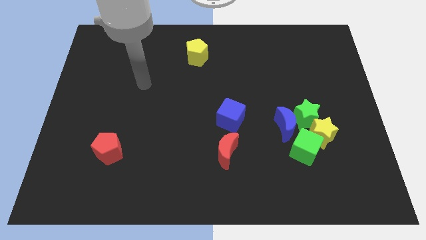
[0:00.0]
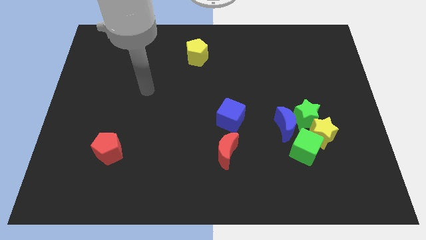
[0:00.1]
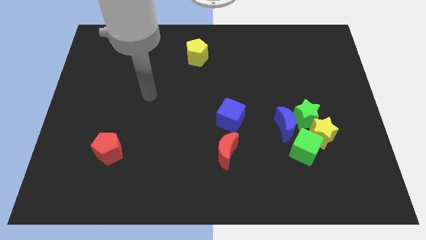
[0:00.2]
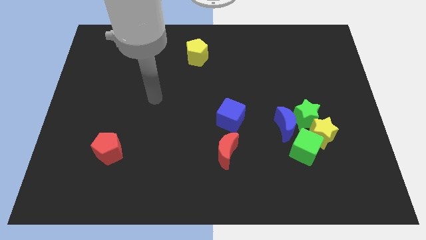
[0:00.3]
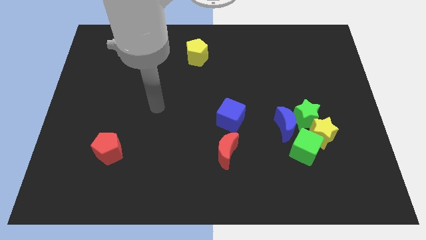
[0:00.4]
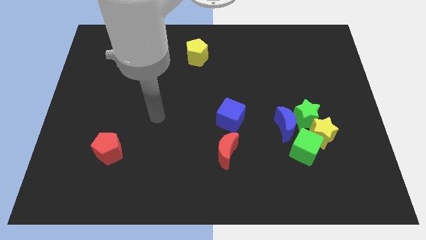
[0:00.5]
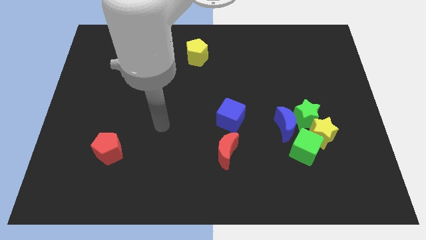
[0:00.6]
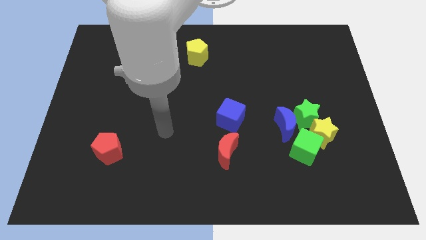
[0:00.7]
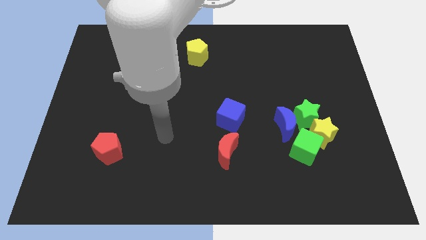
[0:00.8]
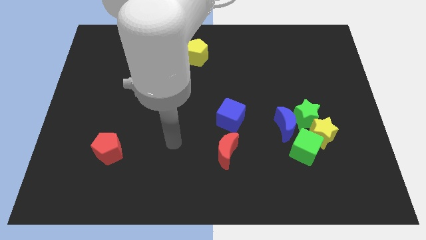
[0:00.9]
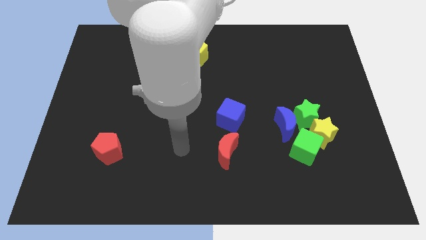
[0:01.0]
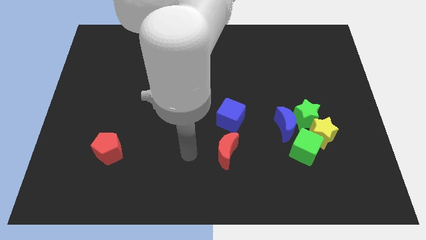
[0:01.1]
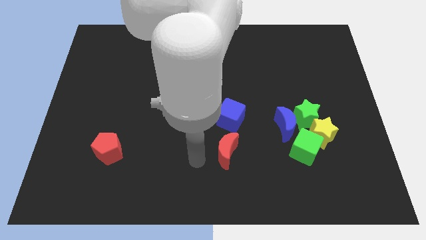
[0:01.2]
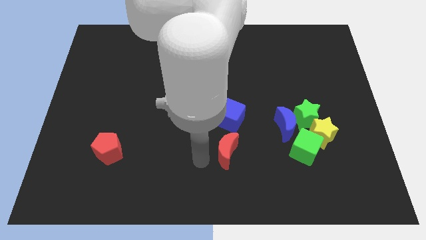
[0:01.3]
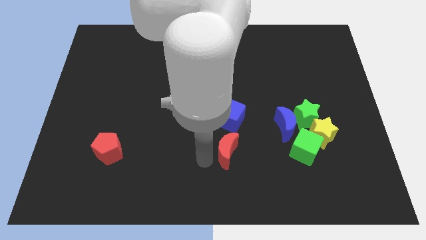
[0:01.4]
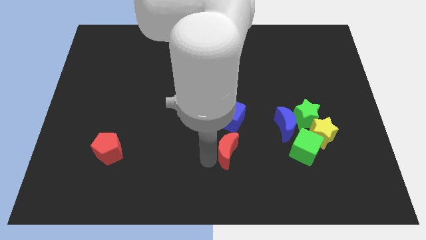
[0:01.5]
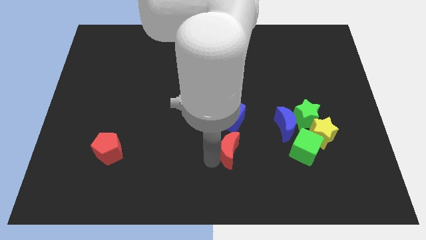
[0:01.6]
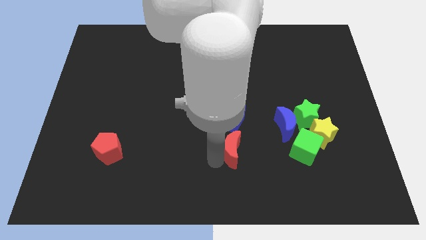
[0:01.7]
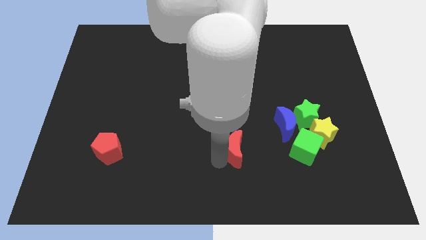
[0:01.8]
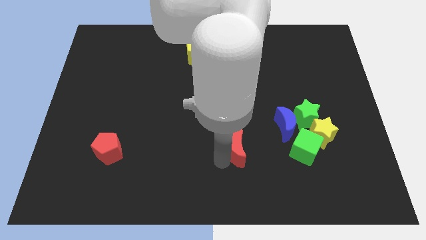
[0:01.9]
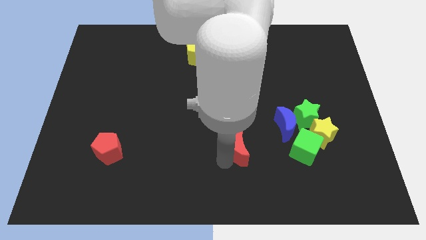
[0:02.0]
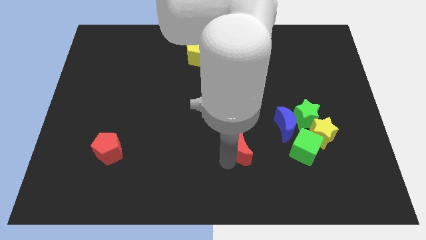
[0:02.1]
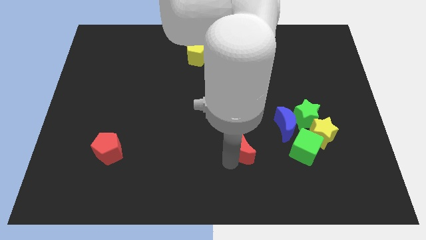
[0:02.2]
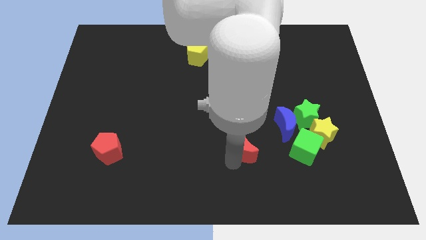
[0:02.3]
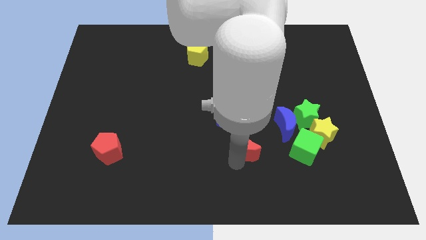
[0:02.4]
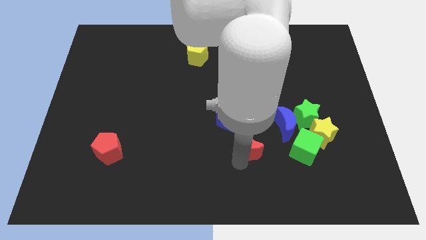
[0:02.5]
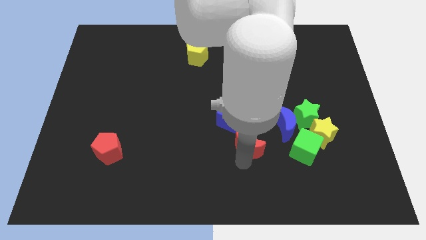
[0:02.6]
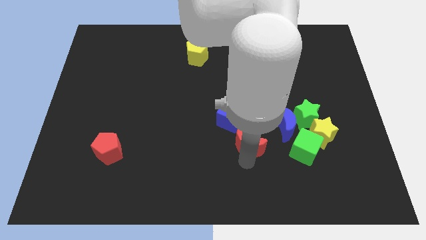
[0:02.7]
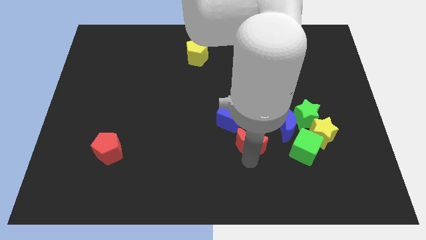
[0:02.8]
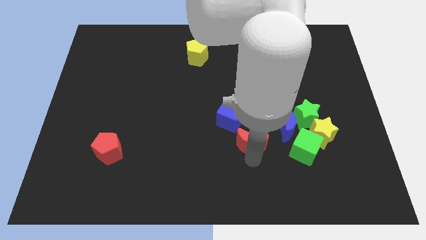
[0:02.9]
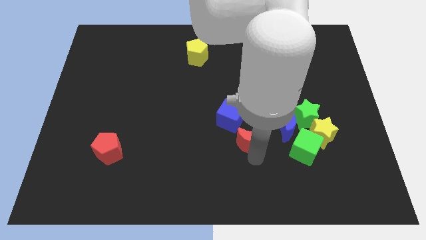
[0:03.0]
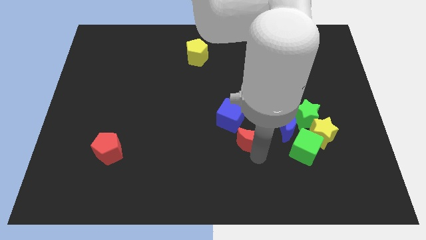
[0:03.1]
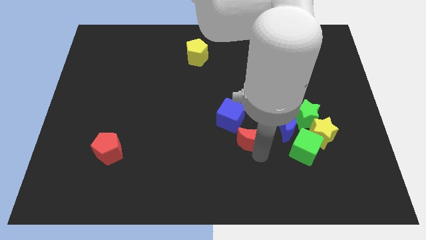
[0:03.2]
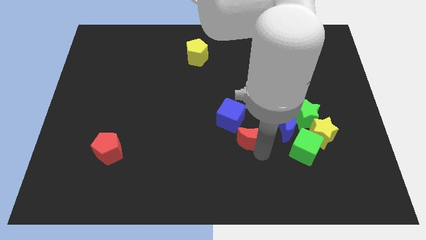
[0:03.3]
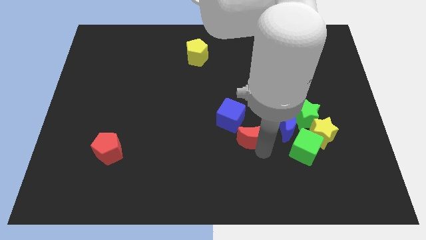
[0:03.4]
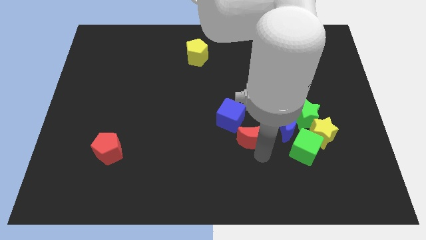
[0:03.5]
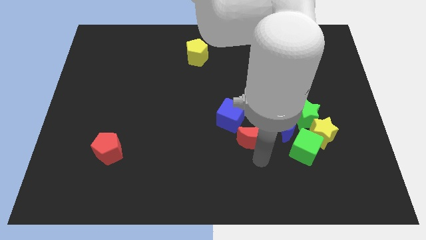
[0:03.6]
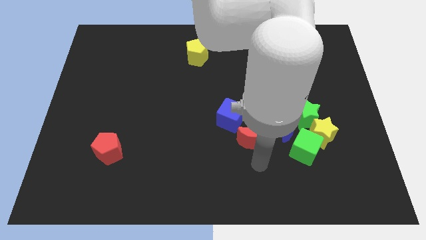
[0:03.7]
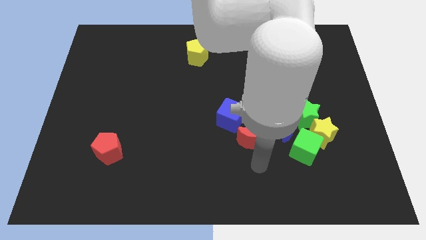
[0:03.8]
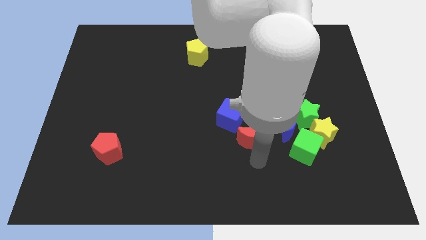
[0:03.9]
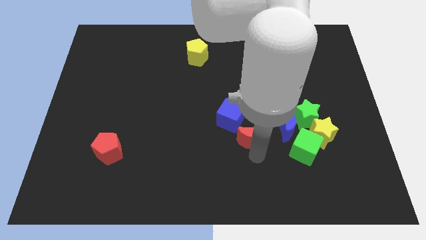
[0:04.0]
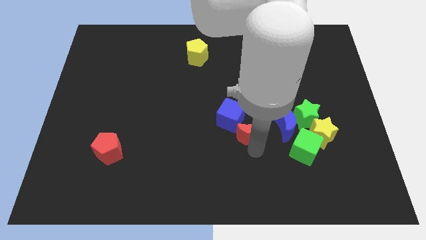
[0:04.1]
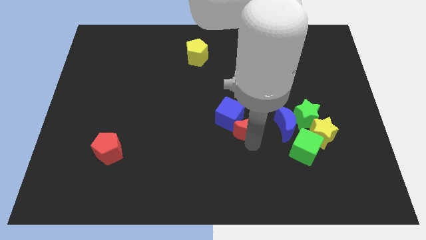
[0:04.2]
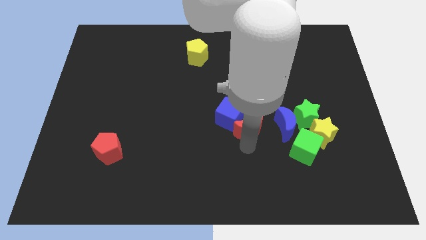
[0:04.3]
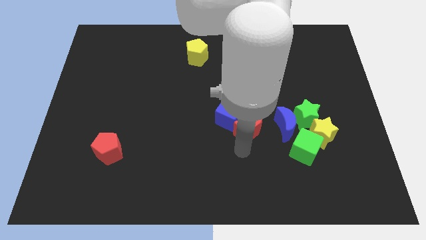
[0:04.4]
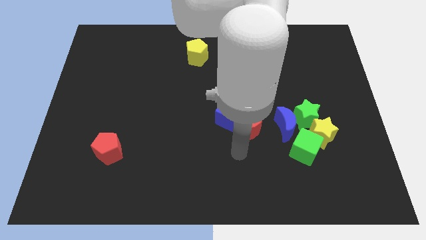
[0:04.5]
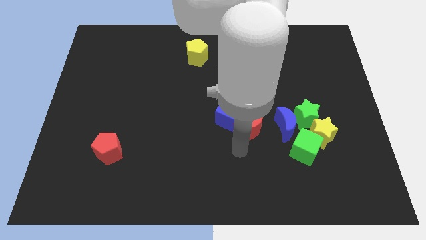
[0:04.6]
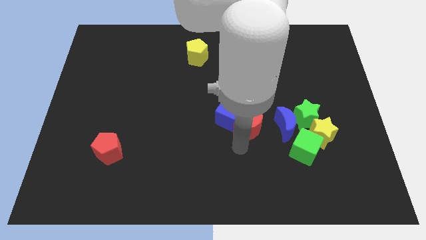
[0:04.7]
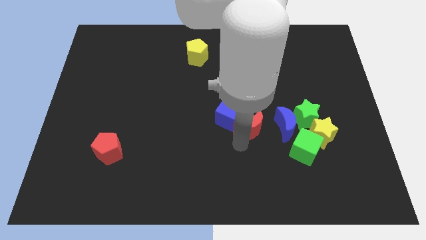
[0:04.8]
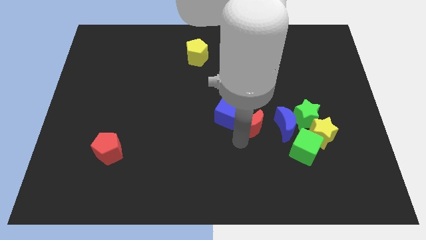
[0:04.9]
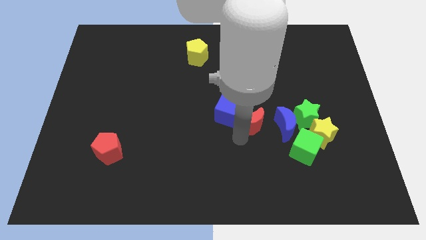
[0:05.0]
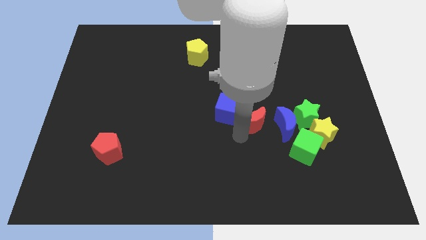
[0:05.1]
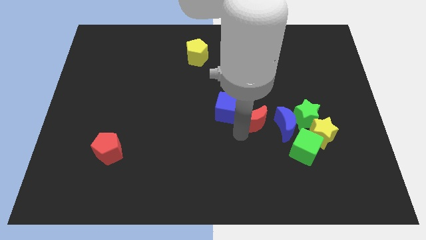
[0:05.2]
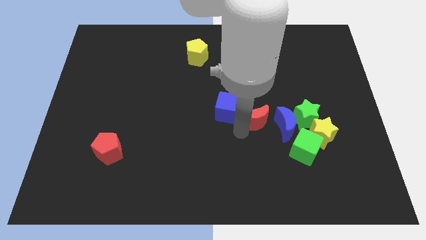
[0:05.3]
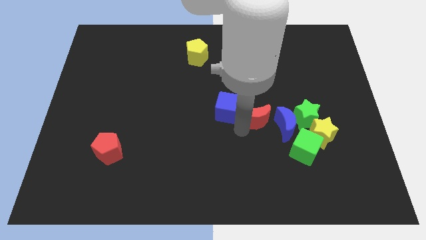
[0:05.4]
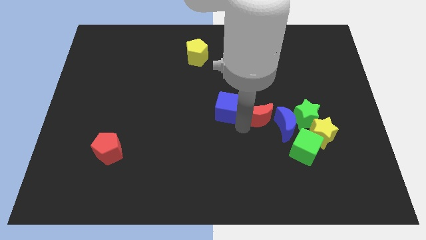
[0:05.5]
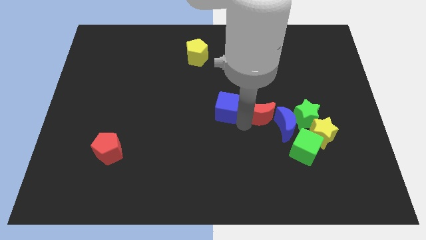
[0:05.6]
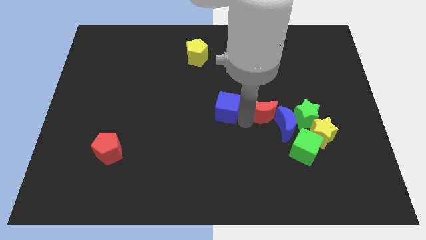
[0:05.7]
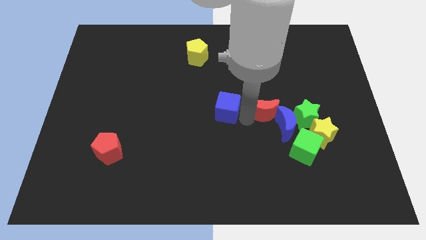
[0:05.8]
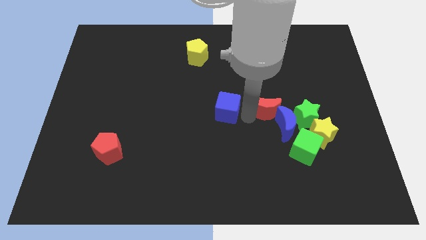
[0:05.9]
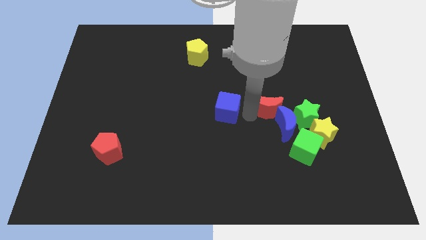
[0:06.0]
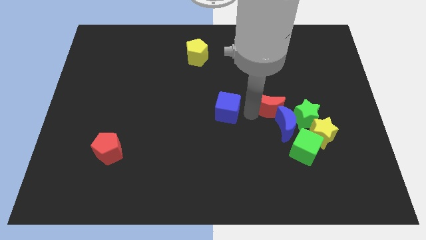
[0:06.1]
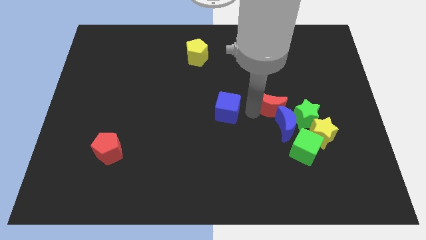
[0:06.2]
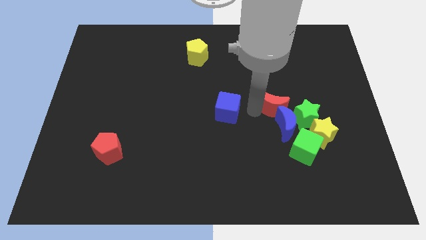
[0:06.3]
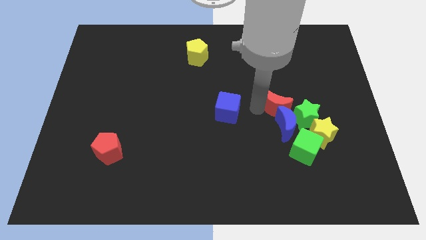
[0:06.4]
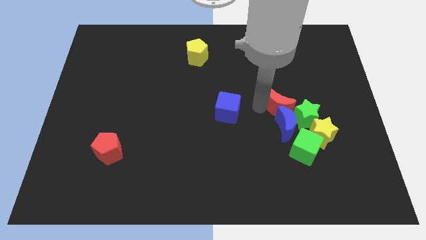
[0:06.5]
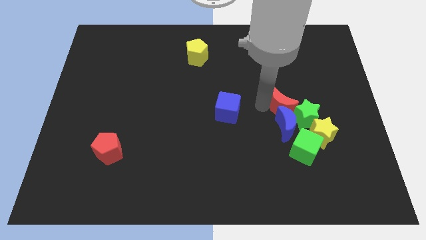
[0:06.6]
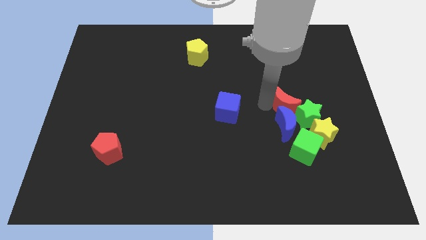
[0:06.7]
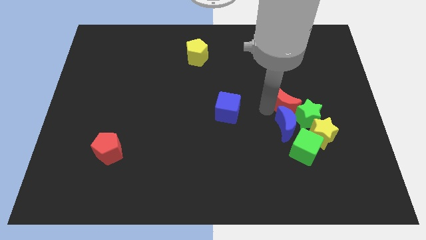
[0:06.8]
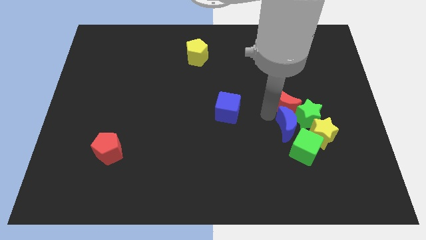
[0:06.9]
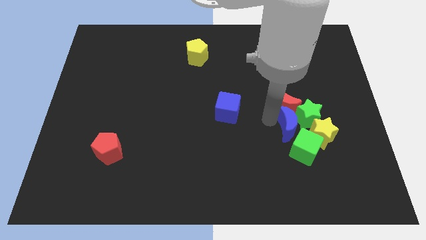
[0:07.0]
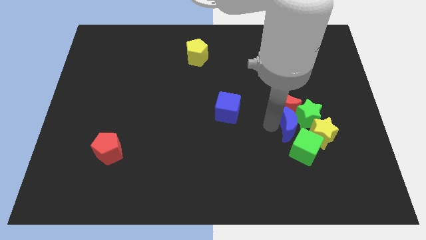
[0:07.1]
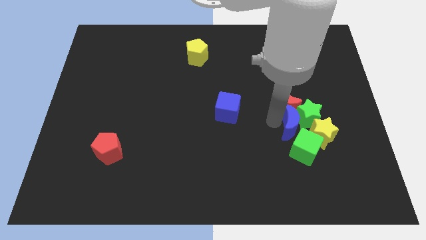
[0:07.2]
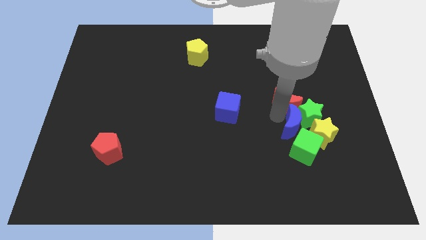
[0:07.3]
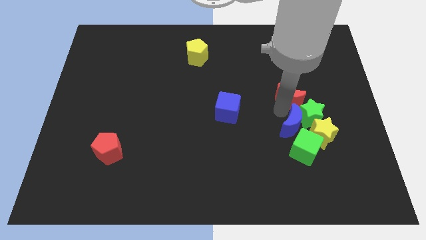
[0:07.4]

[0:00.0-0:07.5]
push the red moon upwards and right
